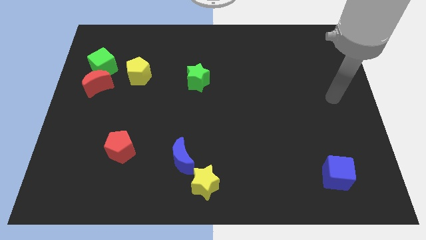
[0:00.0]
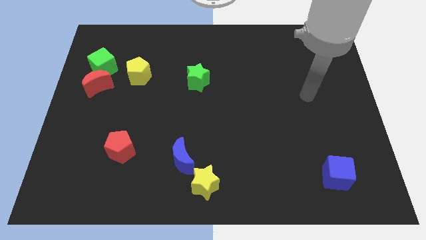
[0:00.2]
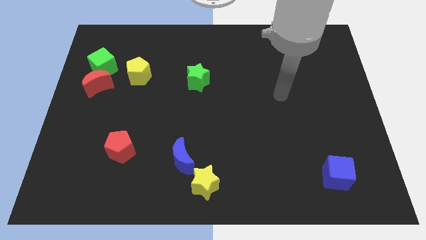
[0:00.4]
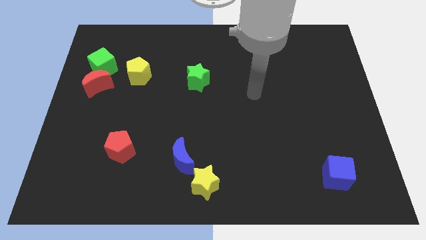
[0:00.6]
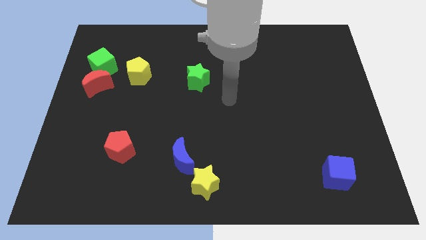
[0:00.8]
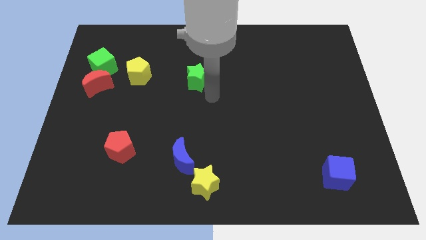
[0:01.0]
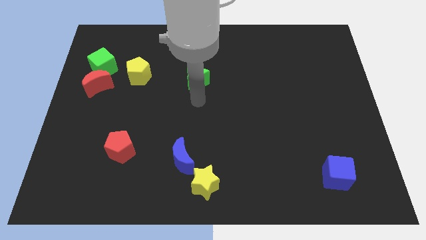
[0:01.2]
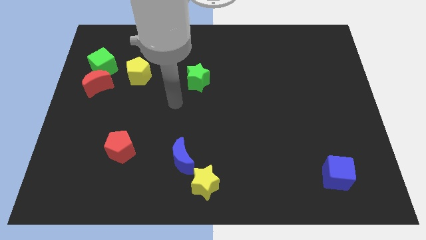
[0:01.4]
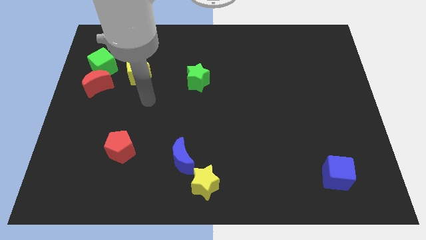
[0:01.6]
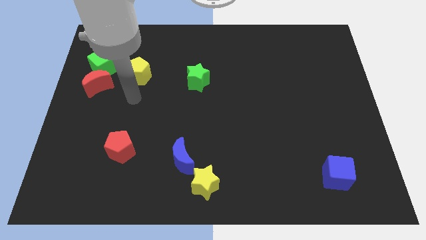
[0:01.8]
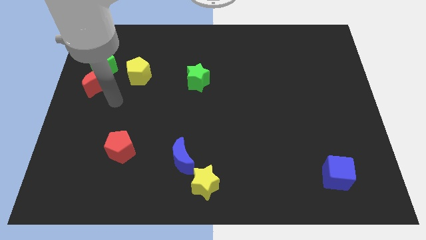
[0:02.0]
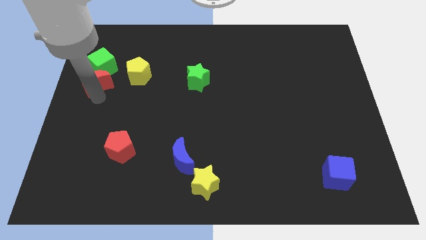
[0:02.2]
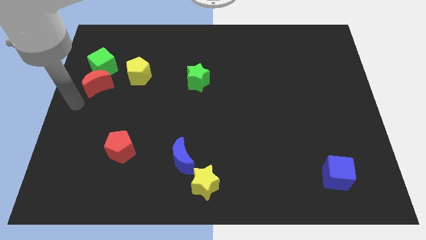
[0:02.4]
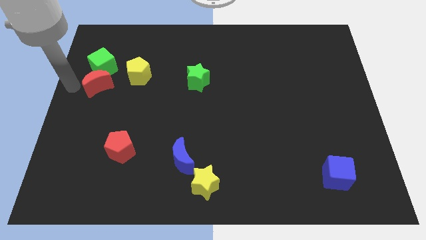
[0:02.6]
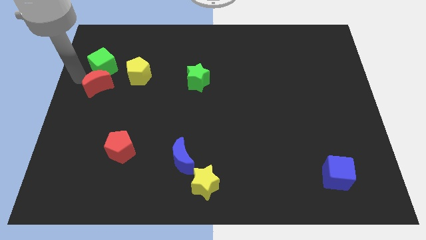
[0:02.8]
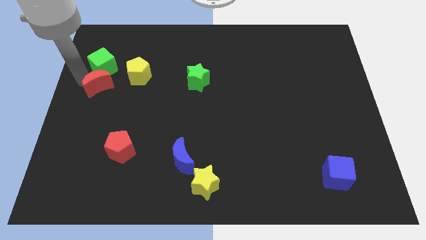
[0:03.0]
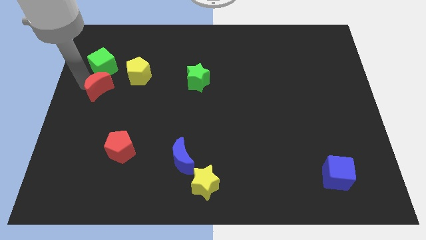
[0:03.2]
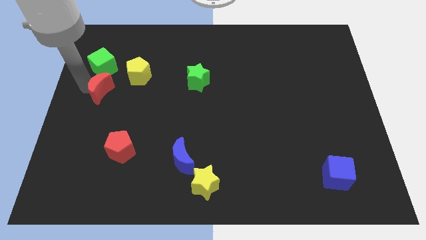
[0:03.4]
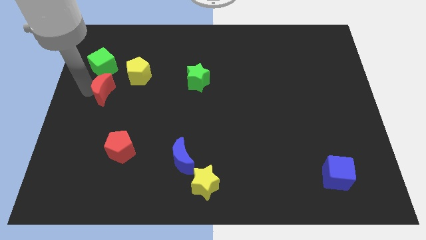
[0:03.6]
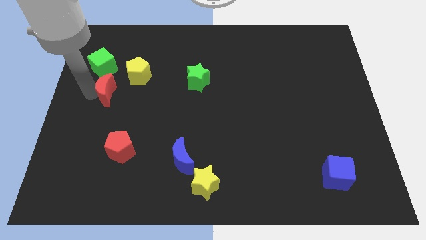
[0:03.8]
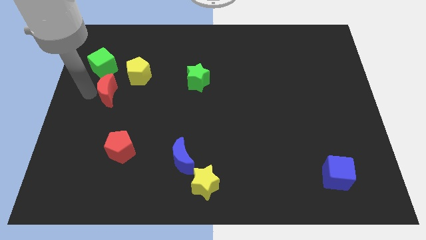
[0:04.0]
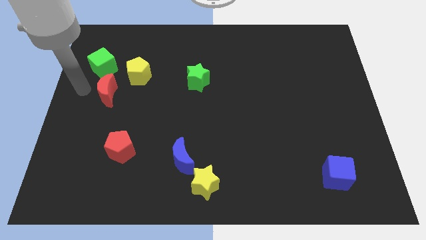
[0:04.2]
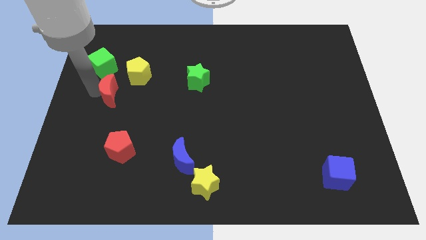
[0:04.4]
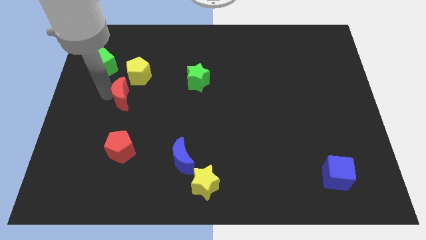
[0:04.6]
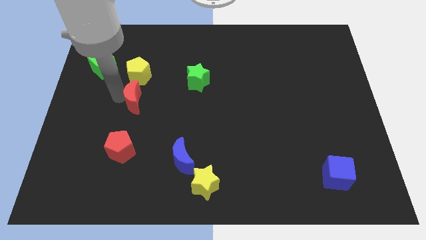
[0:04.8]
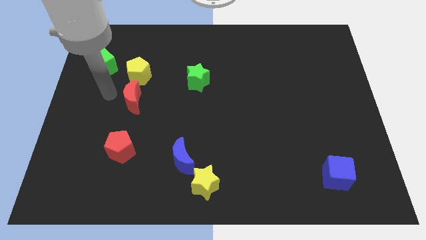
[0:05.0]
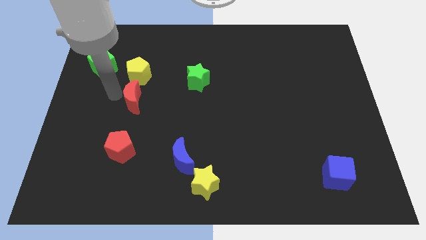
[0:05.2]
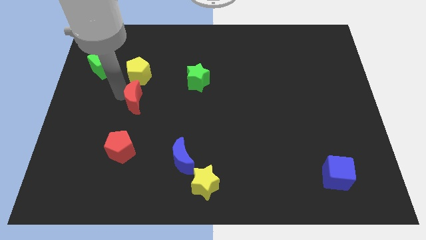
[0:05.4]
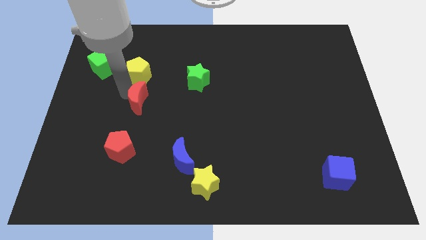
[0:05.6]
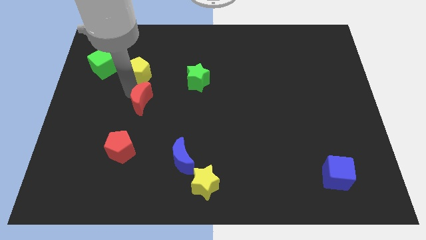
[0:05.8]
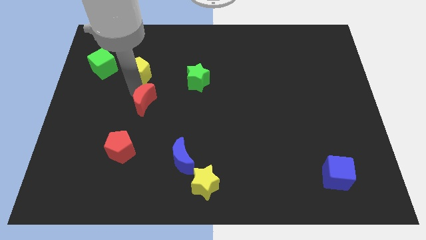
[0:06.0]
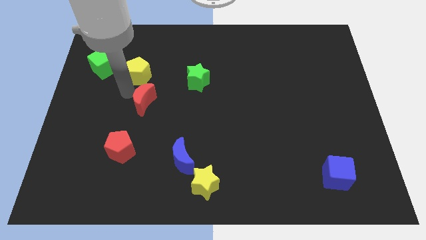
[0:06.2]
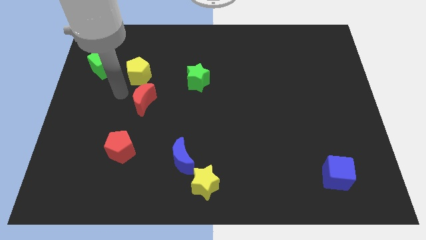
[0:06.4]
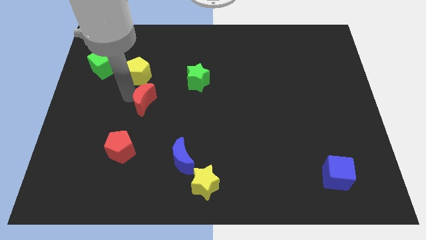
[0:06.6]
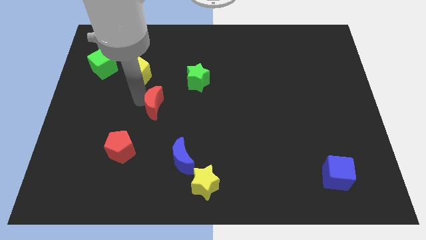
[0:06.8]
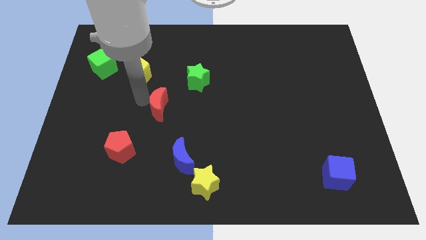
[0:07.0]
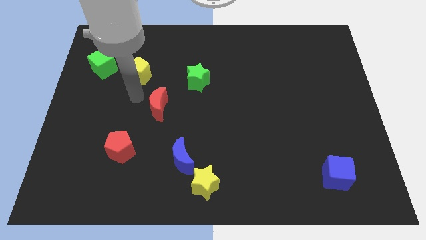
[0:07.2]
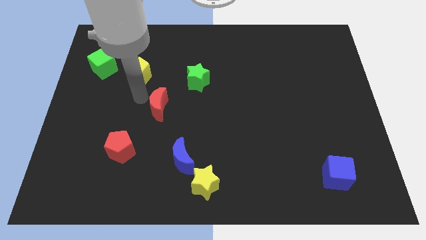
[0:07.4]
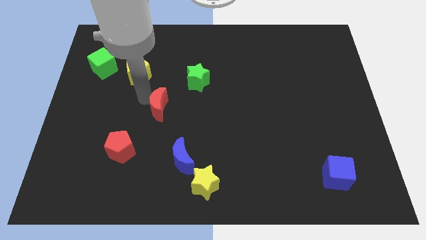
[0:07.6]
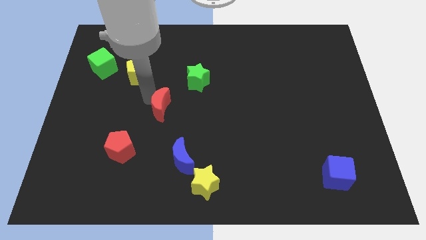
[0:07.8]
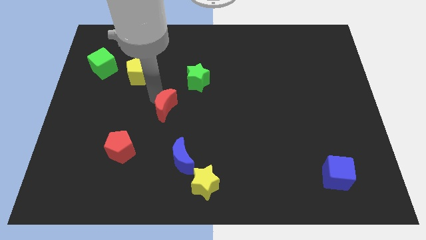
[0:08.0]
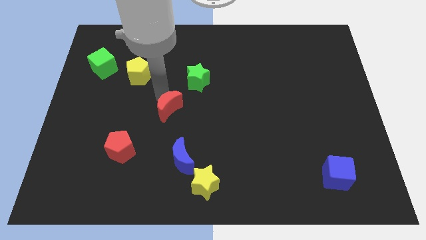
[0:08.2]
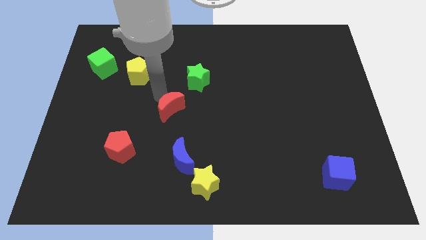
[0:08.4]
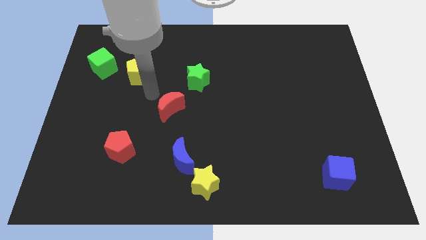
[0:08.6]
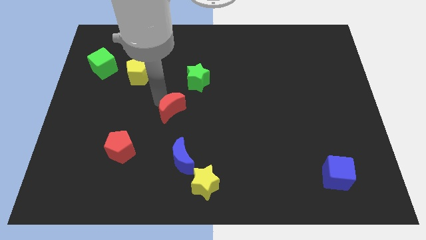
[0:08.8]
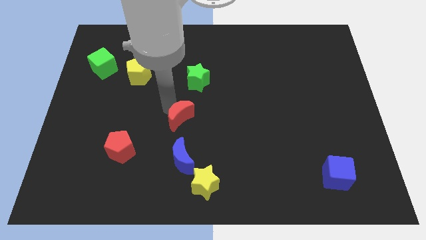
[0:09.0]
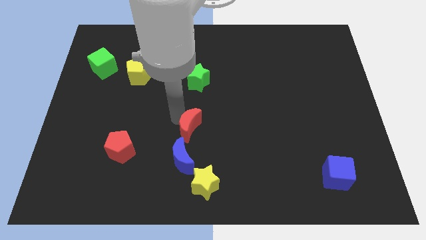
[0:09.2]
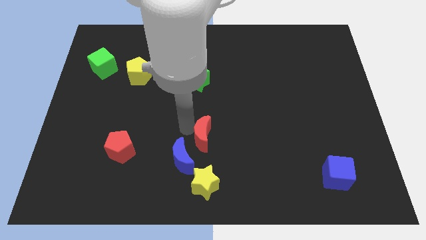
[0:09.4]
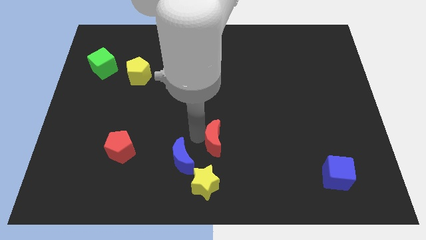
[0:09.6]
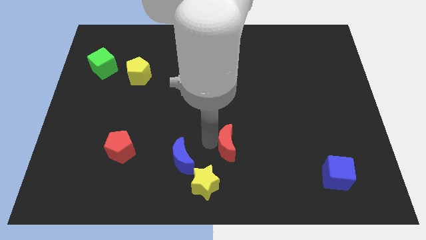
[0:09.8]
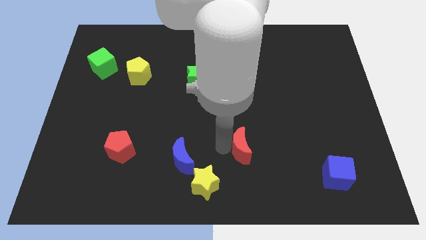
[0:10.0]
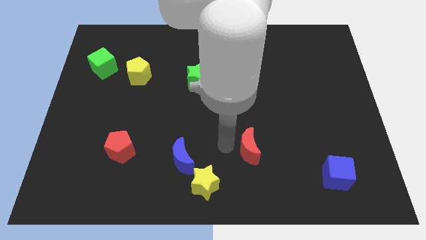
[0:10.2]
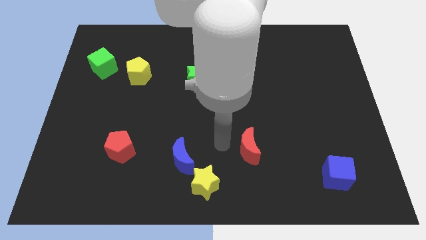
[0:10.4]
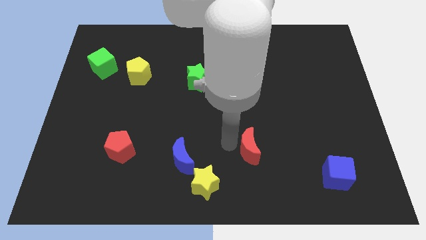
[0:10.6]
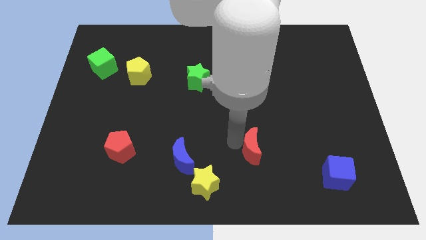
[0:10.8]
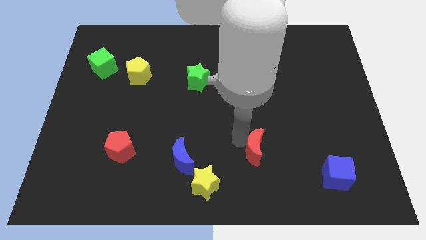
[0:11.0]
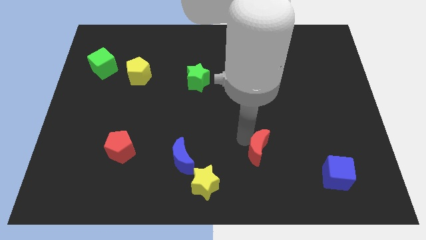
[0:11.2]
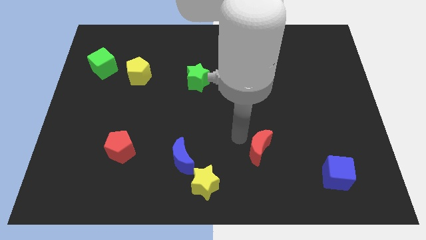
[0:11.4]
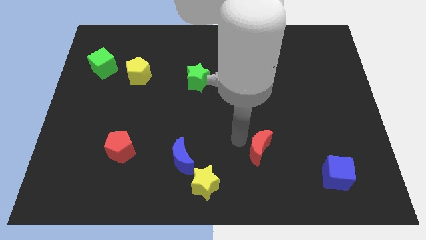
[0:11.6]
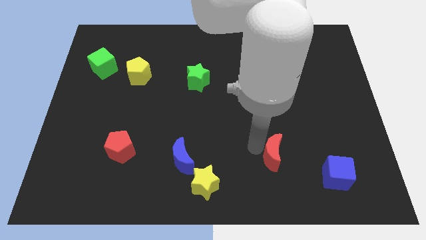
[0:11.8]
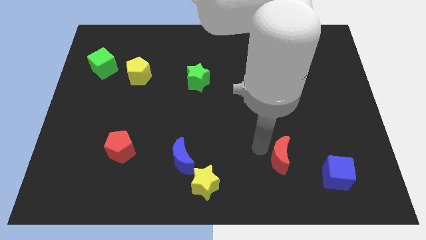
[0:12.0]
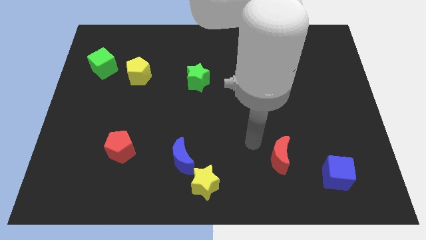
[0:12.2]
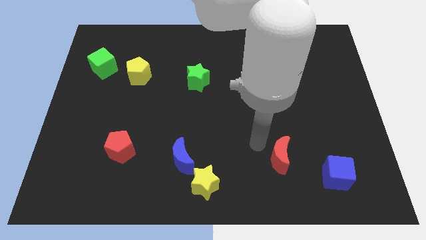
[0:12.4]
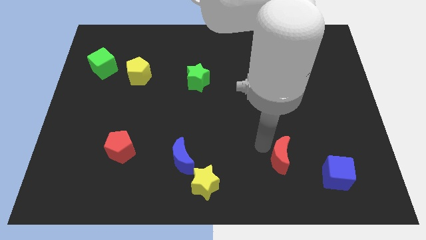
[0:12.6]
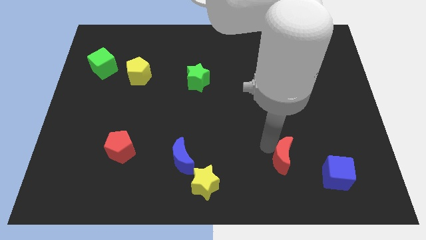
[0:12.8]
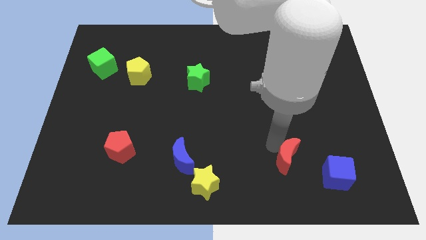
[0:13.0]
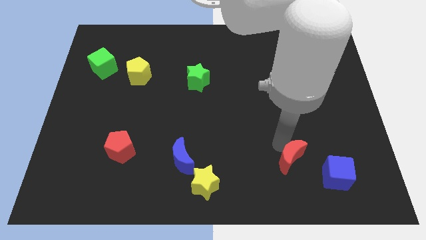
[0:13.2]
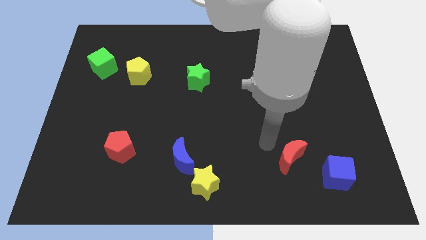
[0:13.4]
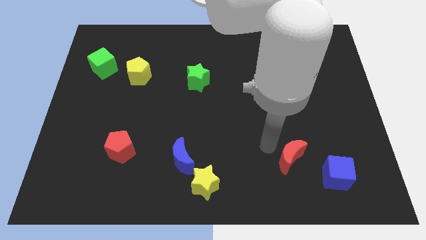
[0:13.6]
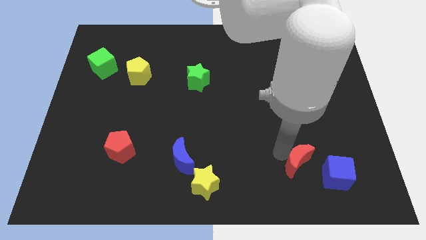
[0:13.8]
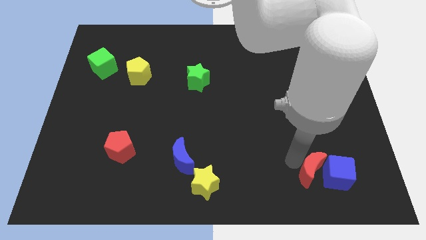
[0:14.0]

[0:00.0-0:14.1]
slide the red moon next to the blue cube
